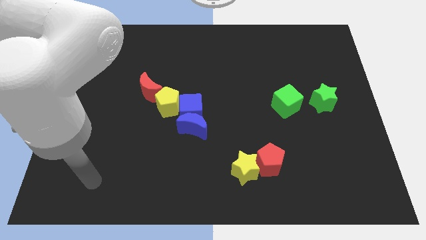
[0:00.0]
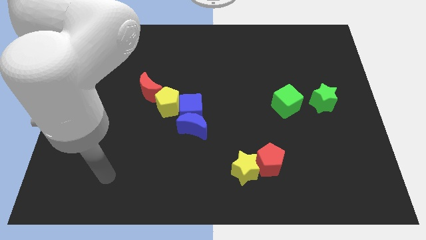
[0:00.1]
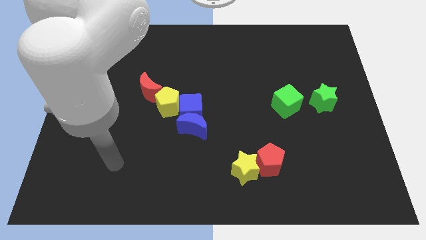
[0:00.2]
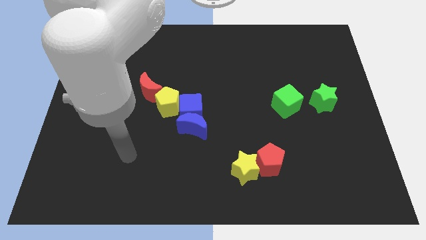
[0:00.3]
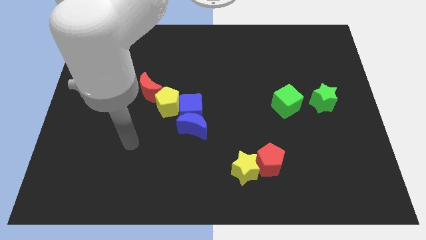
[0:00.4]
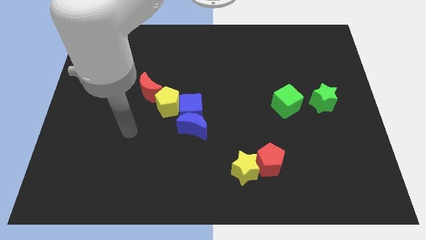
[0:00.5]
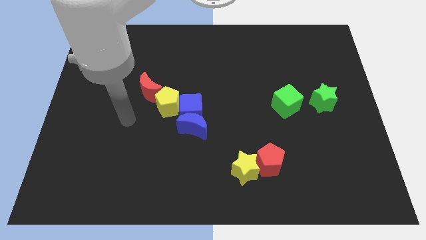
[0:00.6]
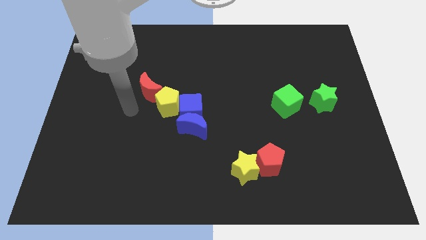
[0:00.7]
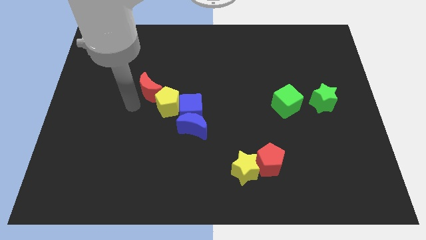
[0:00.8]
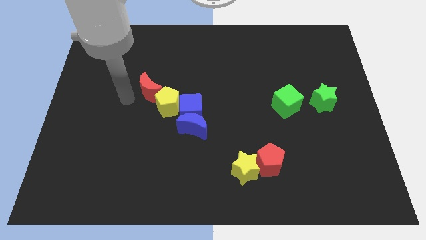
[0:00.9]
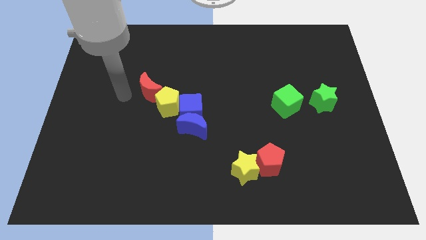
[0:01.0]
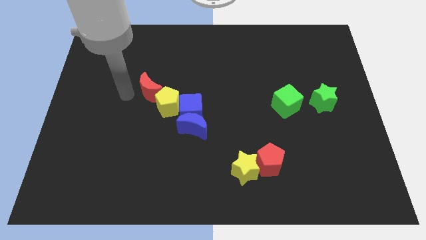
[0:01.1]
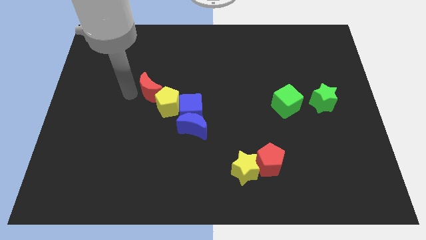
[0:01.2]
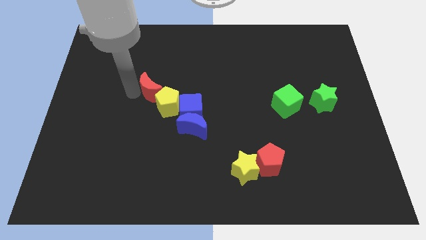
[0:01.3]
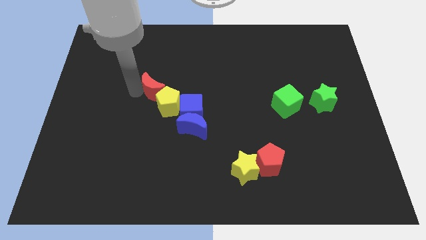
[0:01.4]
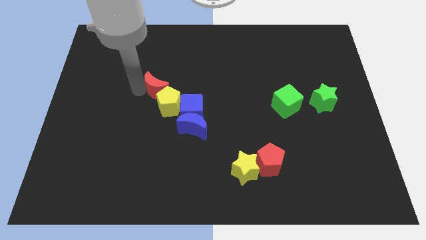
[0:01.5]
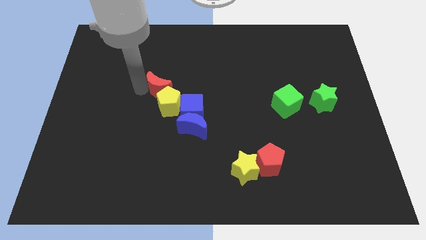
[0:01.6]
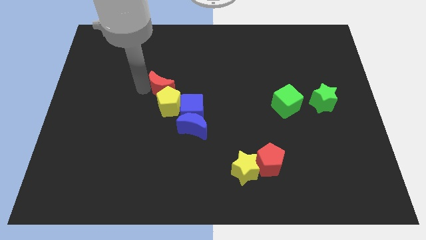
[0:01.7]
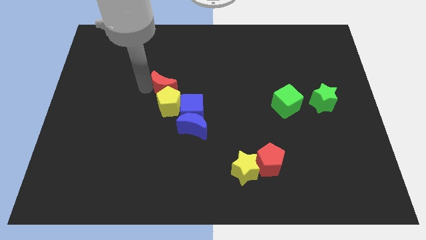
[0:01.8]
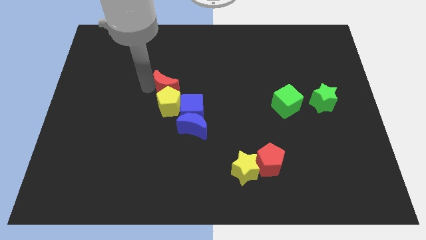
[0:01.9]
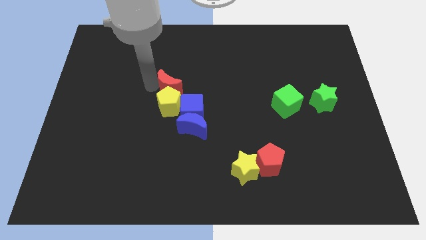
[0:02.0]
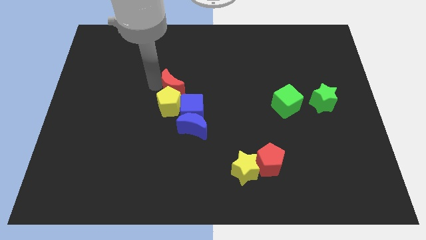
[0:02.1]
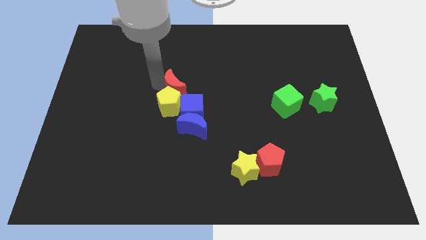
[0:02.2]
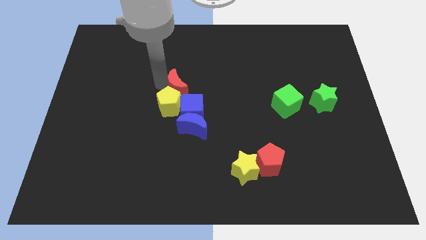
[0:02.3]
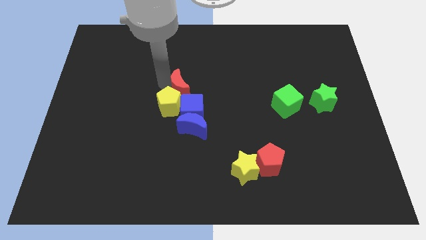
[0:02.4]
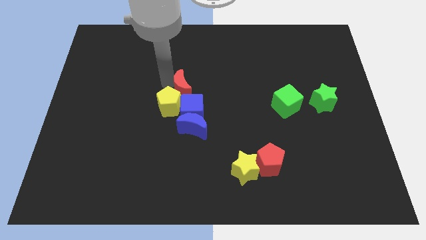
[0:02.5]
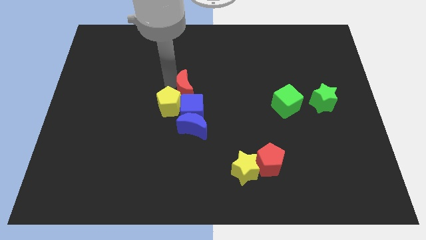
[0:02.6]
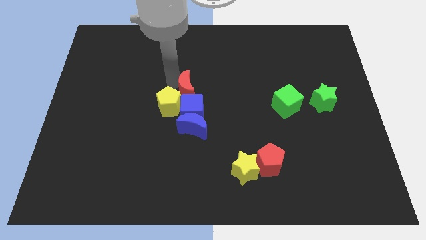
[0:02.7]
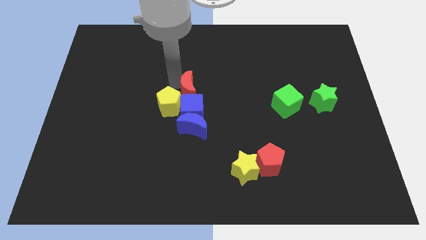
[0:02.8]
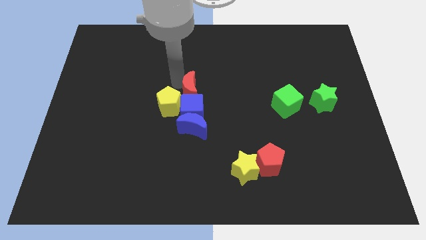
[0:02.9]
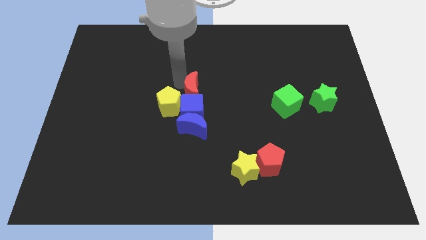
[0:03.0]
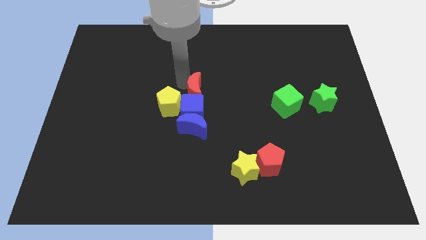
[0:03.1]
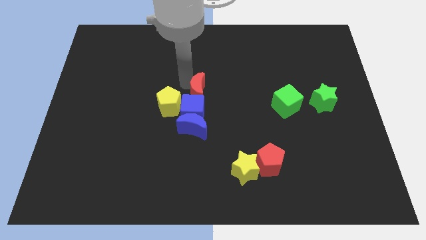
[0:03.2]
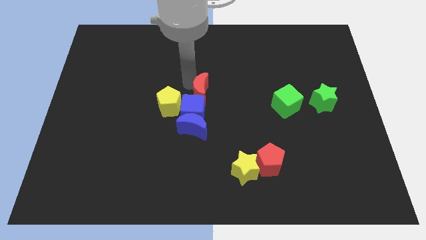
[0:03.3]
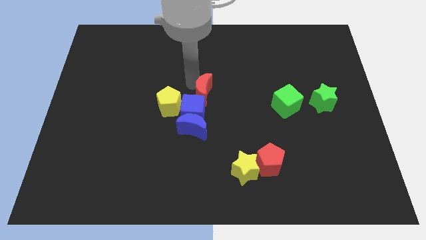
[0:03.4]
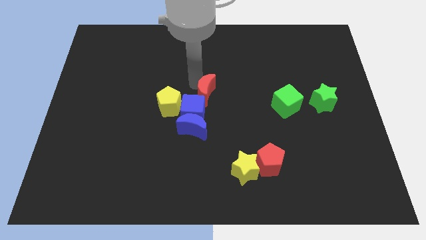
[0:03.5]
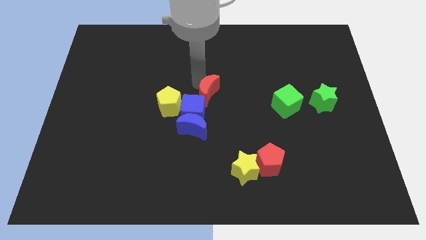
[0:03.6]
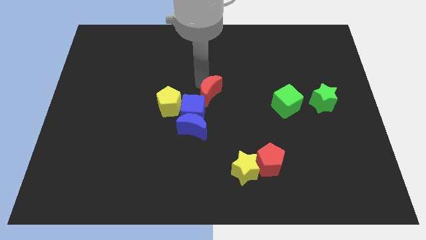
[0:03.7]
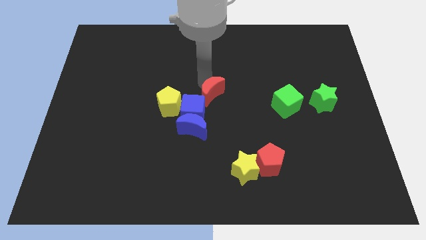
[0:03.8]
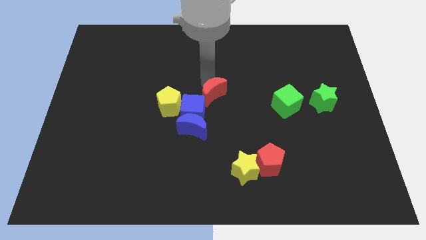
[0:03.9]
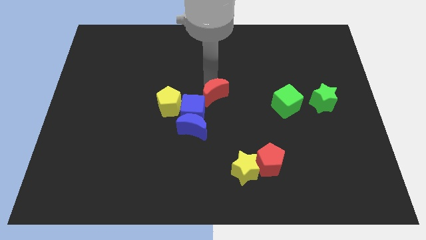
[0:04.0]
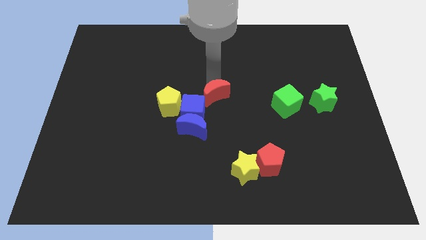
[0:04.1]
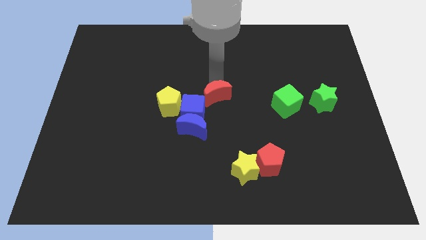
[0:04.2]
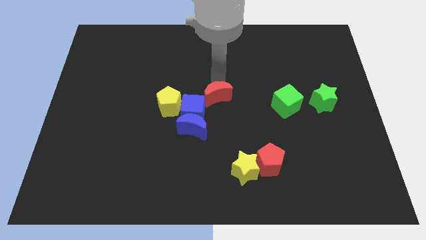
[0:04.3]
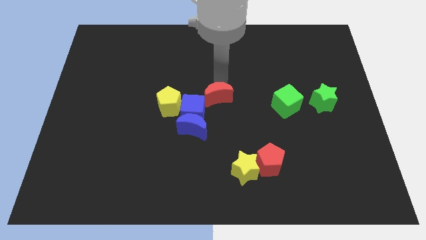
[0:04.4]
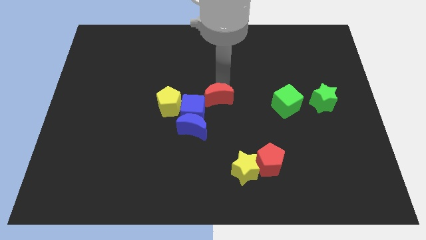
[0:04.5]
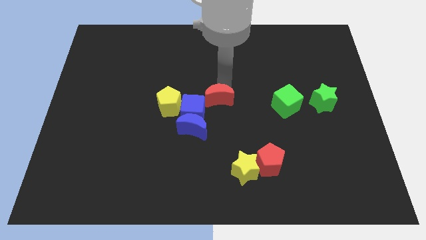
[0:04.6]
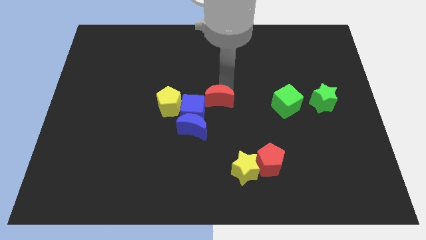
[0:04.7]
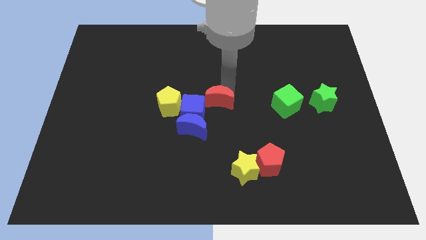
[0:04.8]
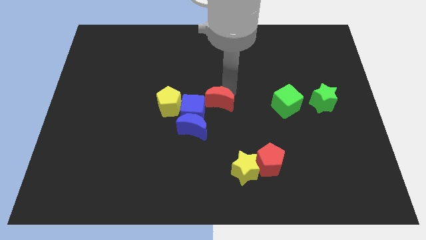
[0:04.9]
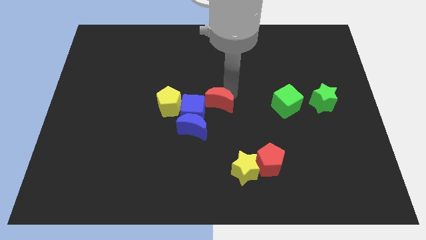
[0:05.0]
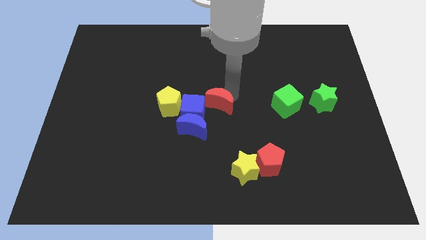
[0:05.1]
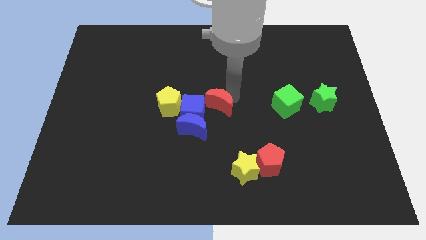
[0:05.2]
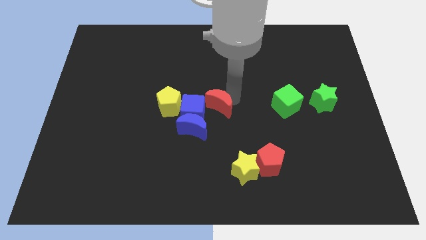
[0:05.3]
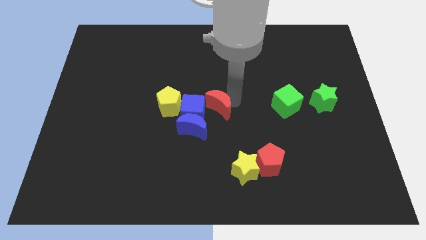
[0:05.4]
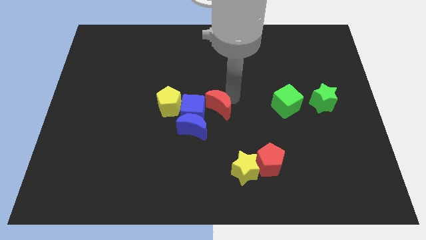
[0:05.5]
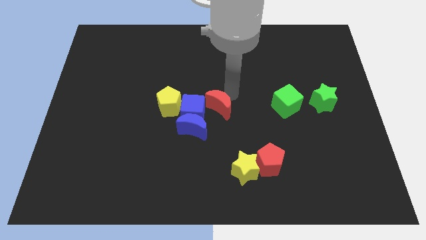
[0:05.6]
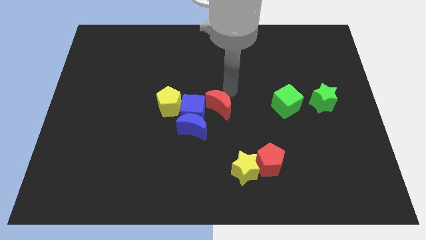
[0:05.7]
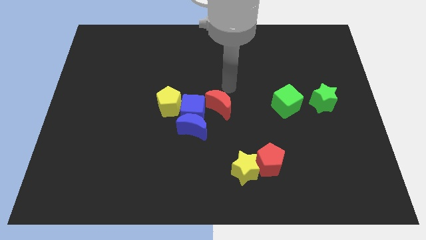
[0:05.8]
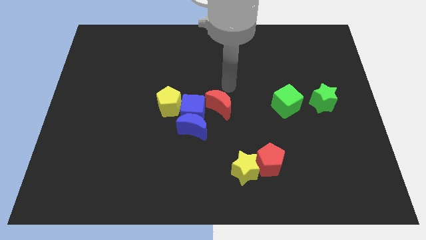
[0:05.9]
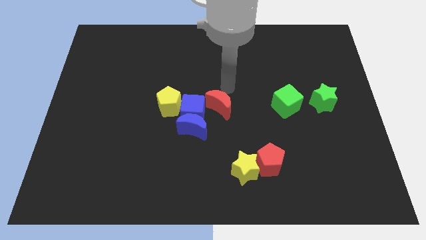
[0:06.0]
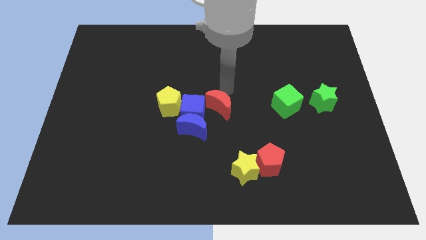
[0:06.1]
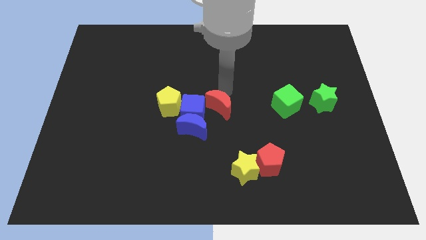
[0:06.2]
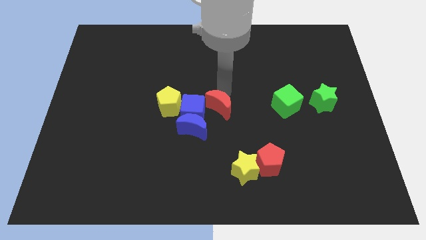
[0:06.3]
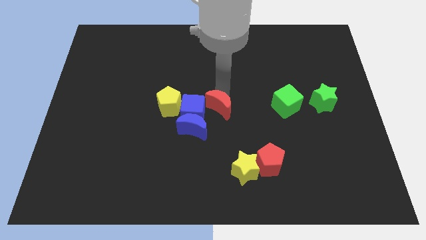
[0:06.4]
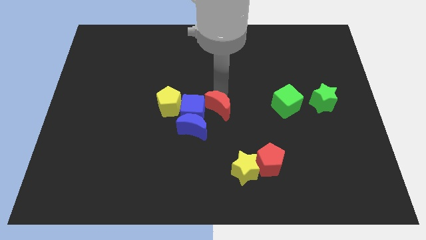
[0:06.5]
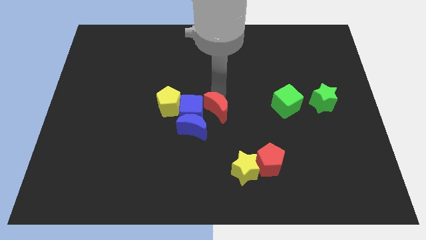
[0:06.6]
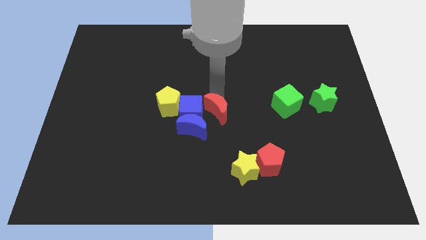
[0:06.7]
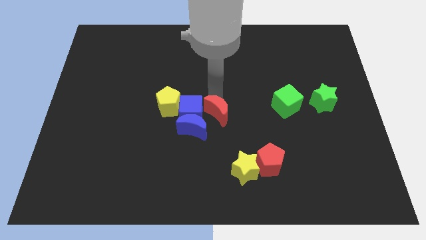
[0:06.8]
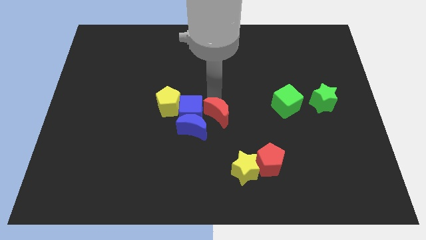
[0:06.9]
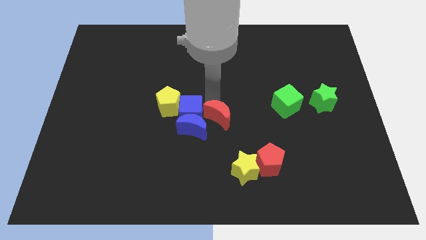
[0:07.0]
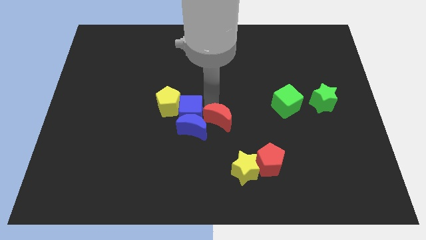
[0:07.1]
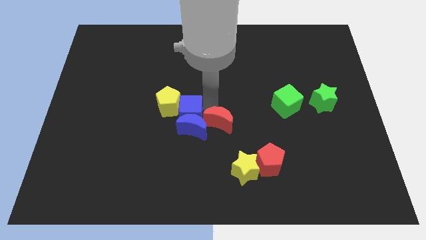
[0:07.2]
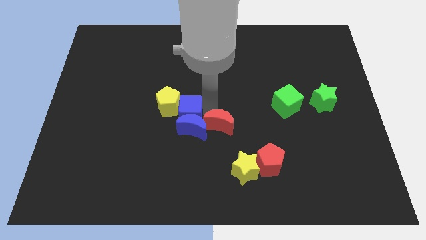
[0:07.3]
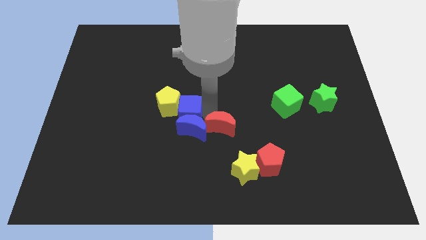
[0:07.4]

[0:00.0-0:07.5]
push the red moon to the bottom right side of the blue moon
